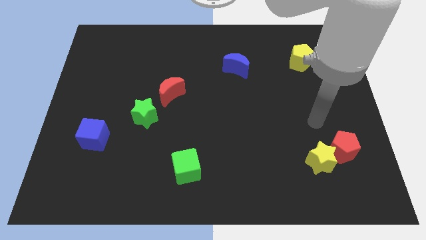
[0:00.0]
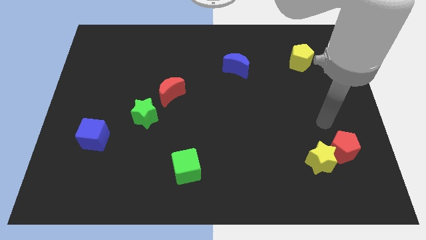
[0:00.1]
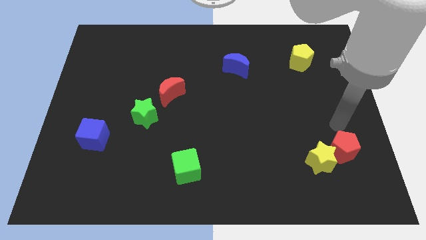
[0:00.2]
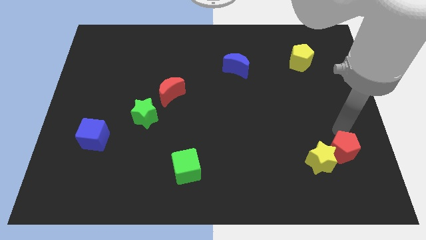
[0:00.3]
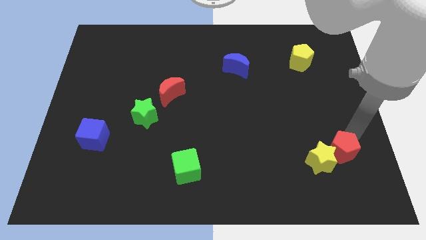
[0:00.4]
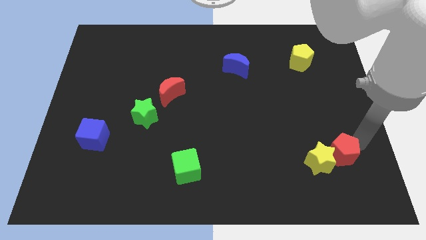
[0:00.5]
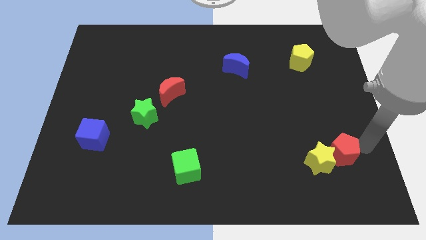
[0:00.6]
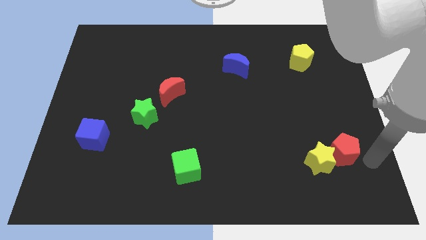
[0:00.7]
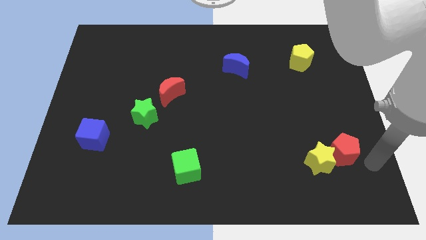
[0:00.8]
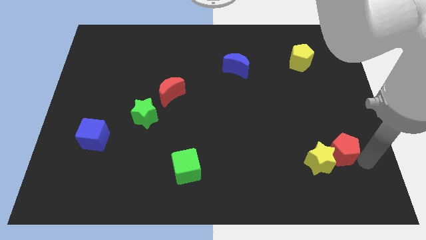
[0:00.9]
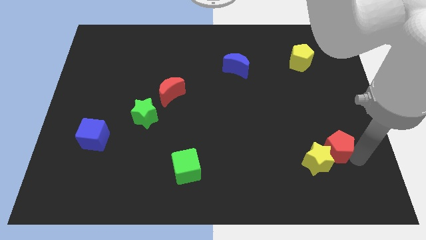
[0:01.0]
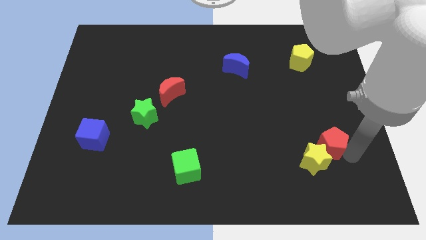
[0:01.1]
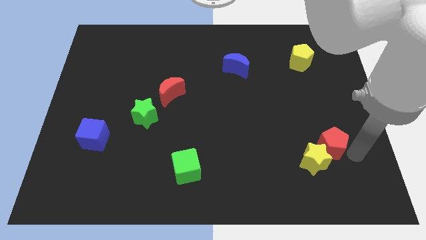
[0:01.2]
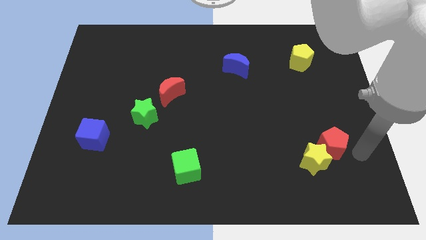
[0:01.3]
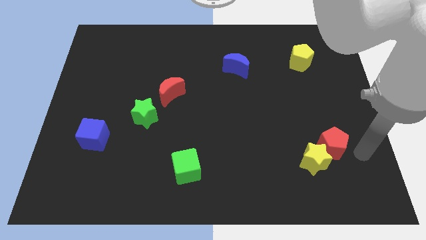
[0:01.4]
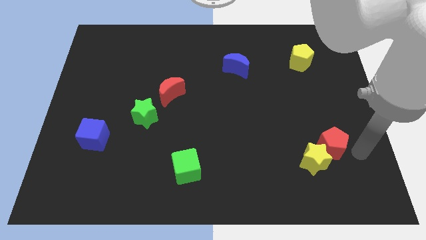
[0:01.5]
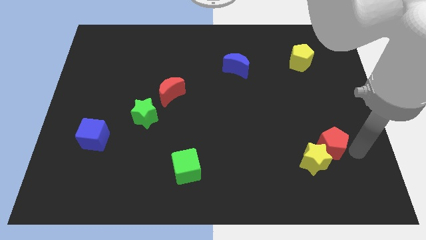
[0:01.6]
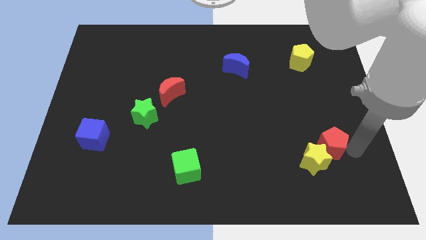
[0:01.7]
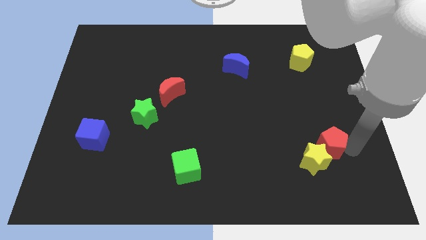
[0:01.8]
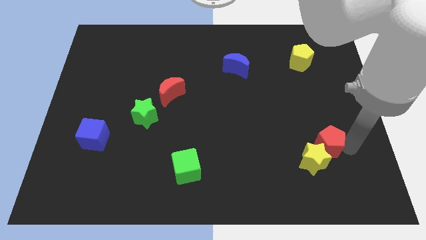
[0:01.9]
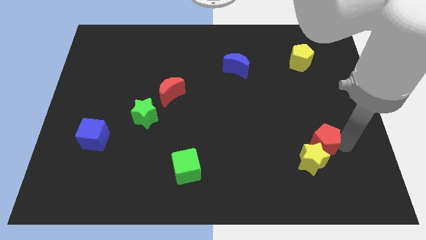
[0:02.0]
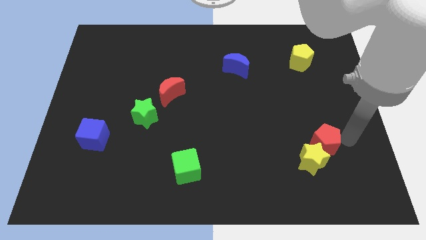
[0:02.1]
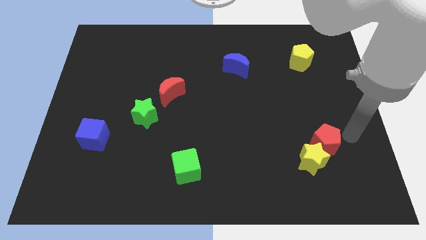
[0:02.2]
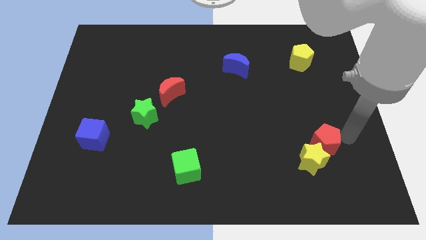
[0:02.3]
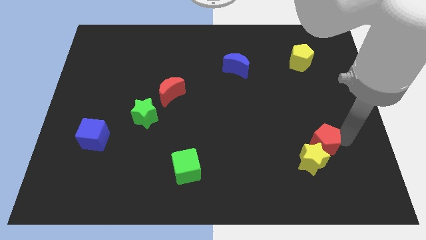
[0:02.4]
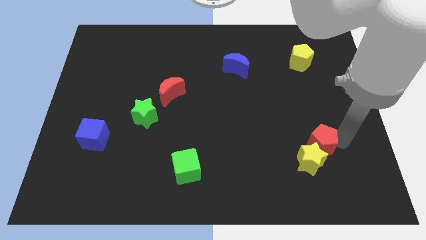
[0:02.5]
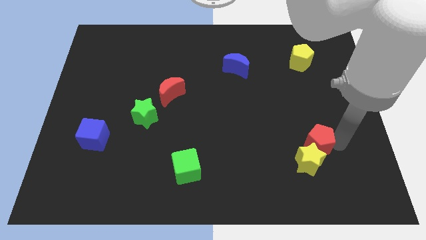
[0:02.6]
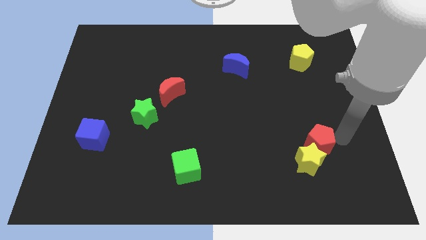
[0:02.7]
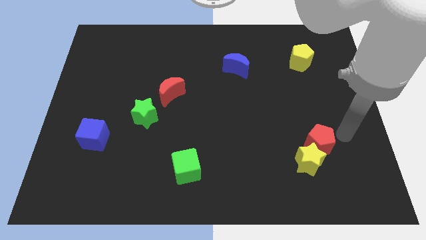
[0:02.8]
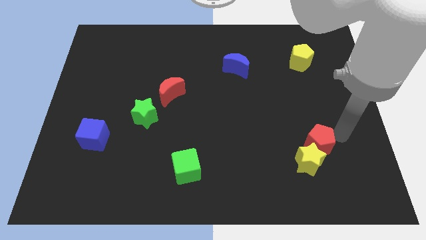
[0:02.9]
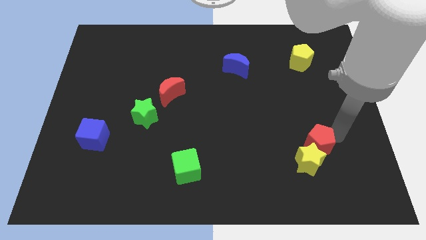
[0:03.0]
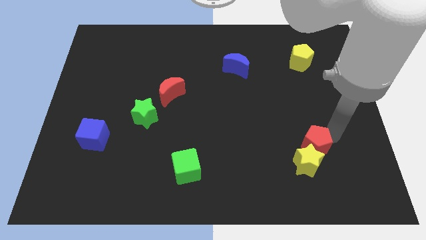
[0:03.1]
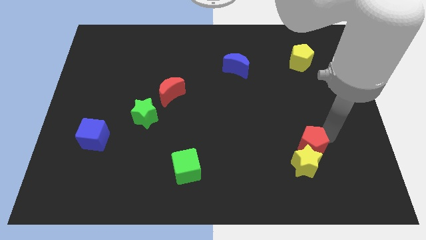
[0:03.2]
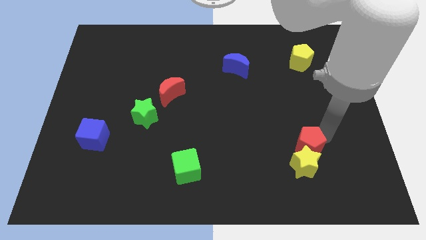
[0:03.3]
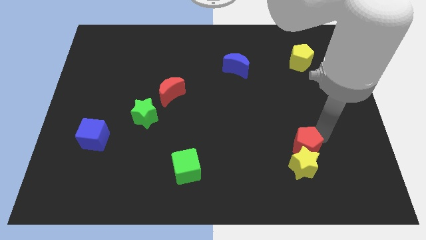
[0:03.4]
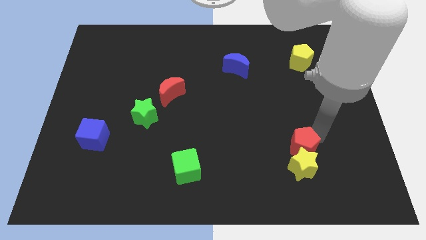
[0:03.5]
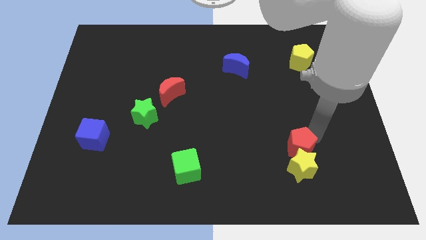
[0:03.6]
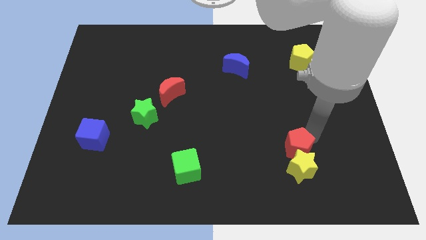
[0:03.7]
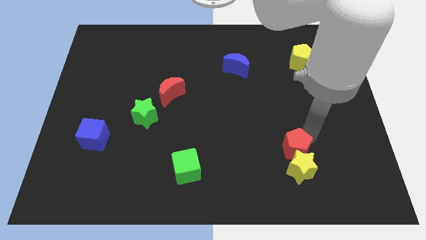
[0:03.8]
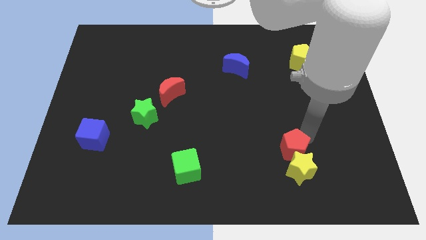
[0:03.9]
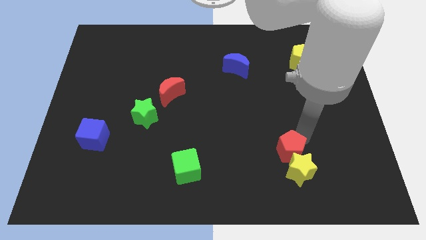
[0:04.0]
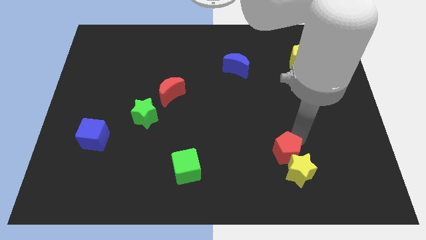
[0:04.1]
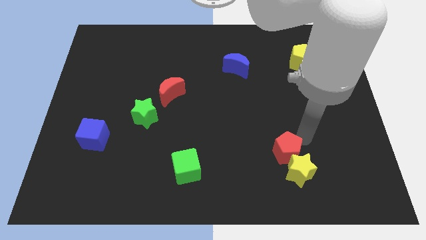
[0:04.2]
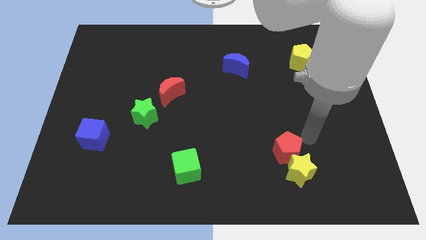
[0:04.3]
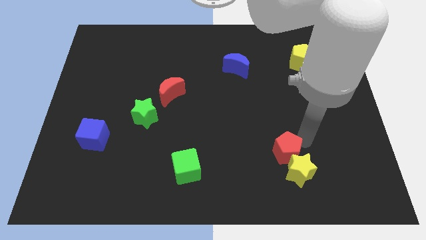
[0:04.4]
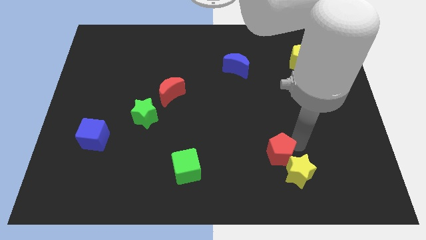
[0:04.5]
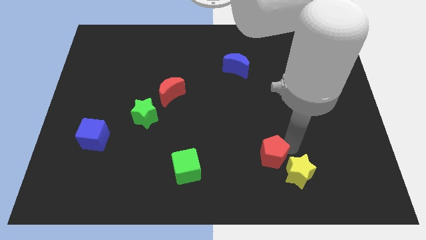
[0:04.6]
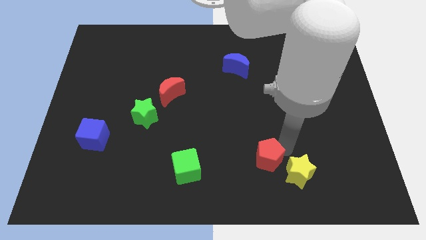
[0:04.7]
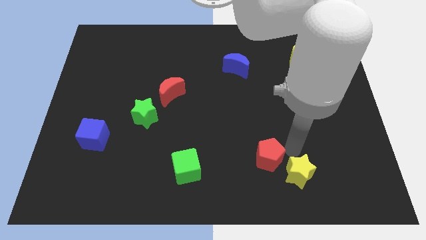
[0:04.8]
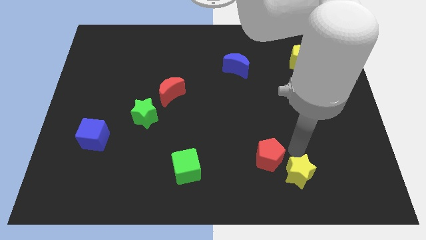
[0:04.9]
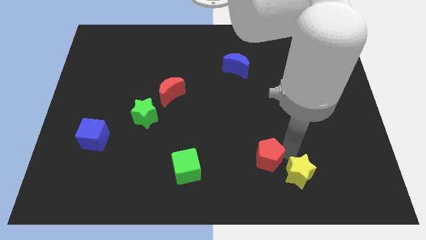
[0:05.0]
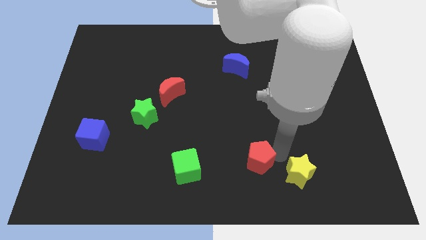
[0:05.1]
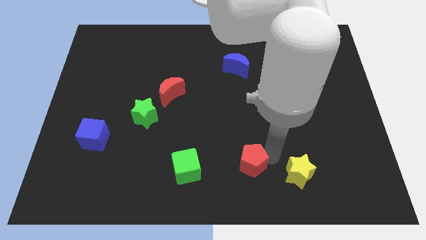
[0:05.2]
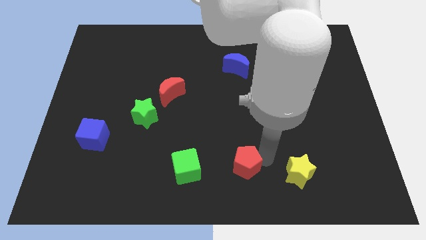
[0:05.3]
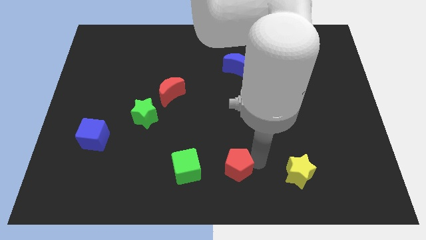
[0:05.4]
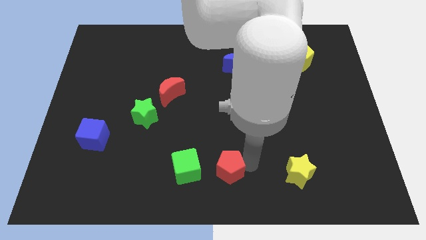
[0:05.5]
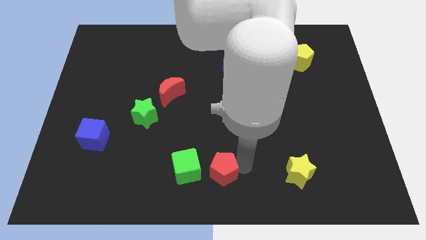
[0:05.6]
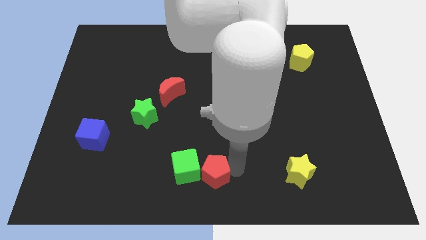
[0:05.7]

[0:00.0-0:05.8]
put the red pentagon close to the green cube

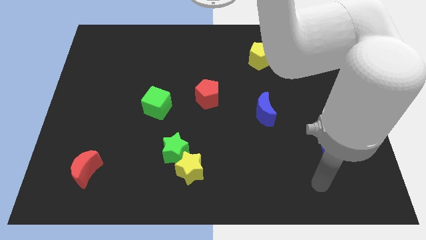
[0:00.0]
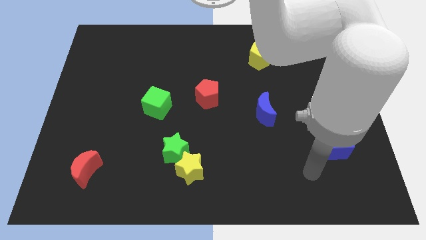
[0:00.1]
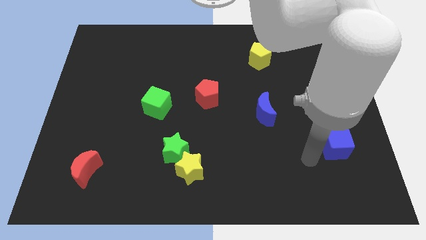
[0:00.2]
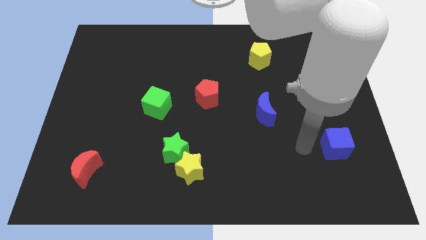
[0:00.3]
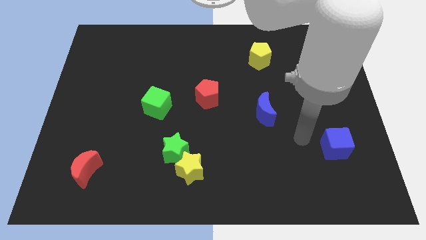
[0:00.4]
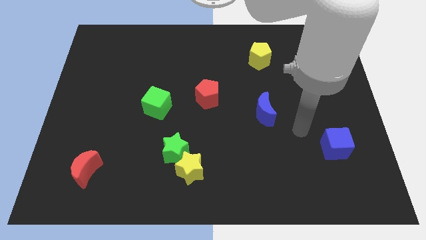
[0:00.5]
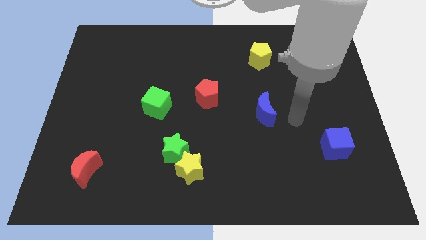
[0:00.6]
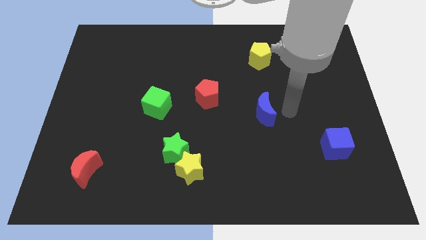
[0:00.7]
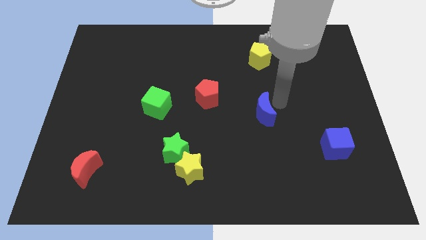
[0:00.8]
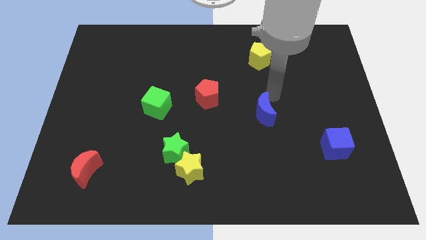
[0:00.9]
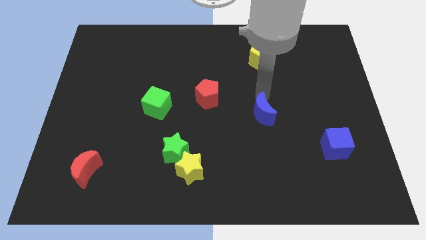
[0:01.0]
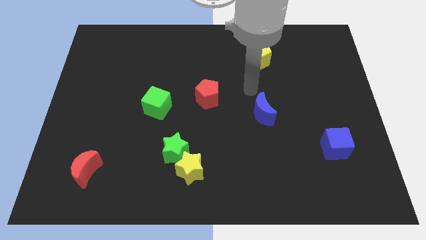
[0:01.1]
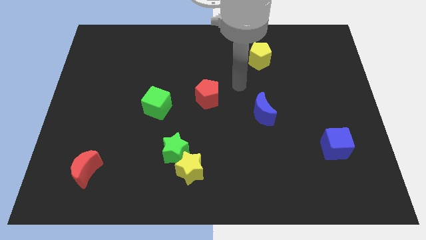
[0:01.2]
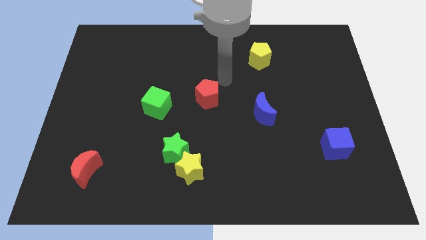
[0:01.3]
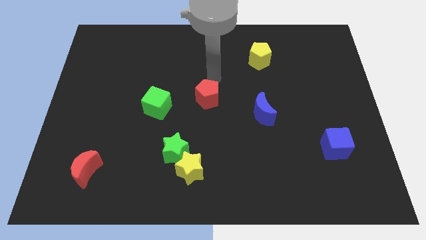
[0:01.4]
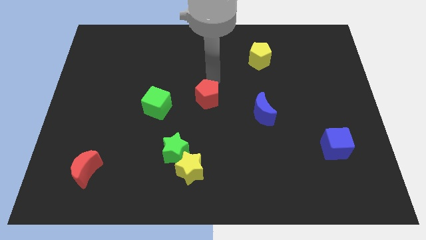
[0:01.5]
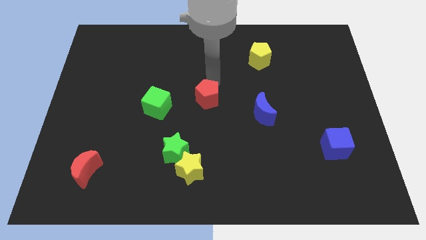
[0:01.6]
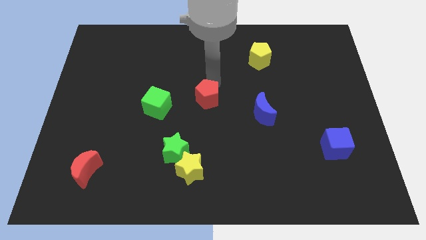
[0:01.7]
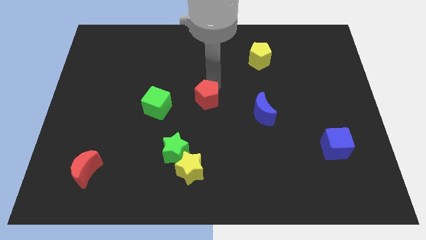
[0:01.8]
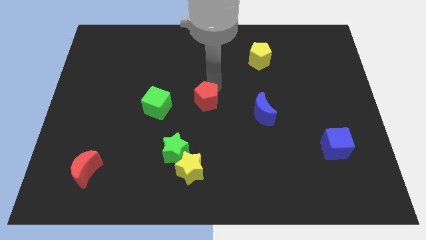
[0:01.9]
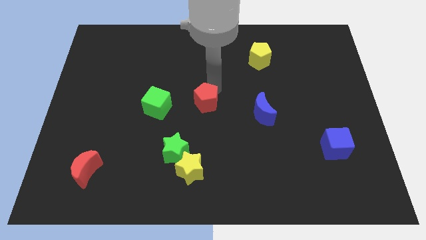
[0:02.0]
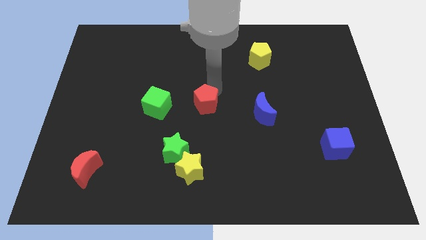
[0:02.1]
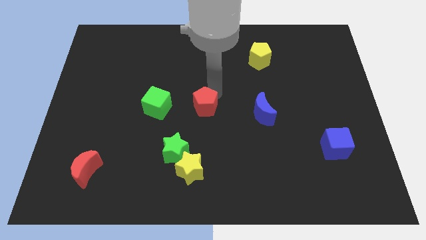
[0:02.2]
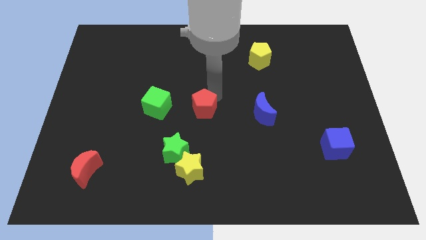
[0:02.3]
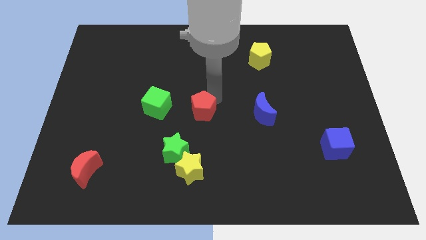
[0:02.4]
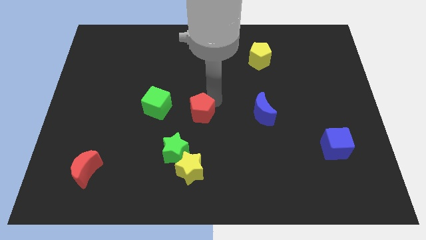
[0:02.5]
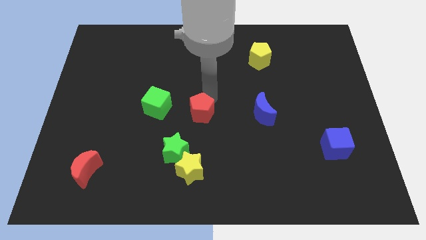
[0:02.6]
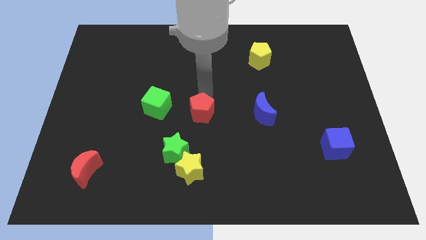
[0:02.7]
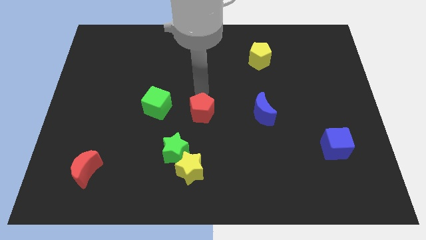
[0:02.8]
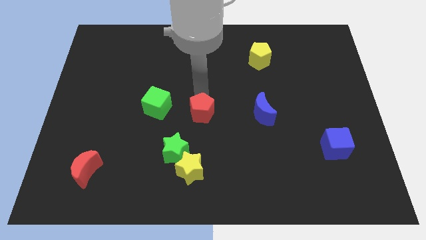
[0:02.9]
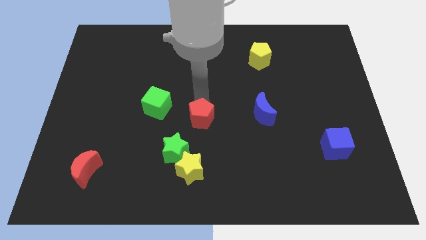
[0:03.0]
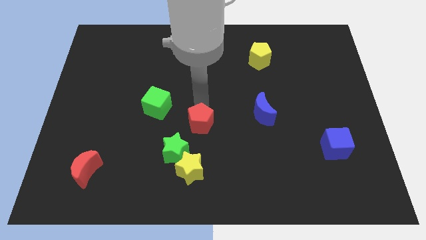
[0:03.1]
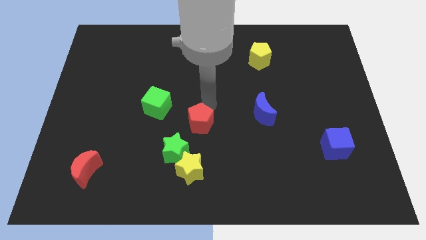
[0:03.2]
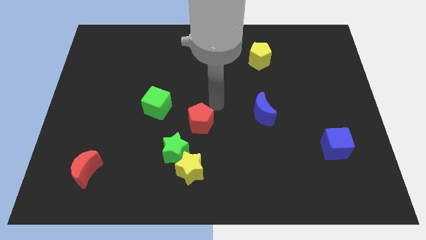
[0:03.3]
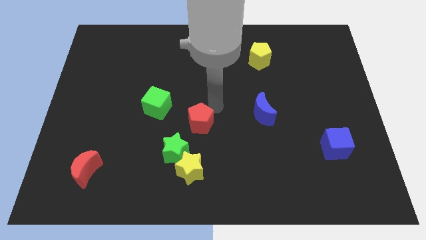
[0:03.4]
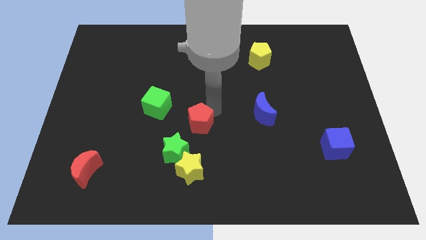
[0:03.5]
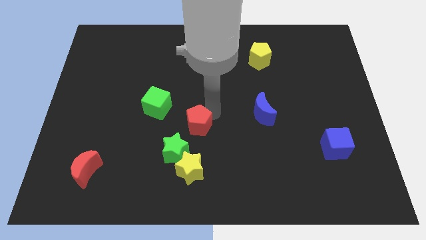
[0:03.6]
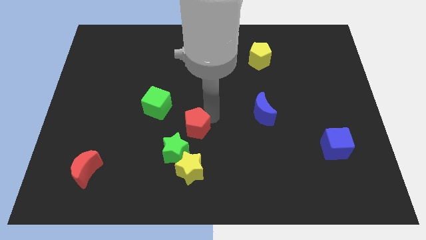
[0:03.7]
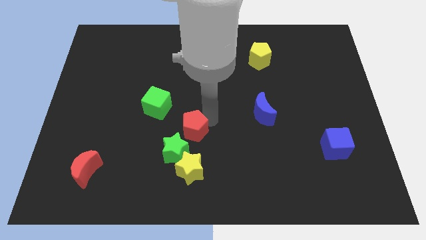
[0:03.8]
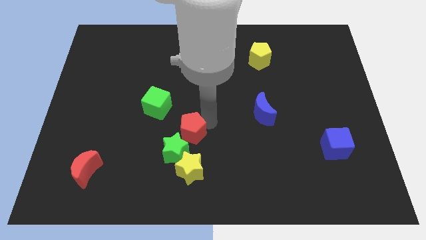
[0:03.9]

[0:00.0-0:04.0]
push the red pentagon next to the green star
